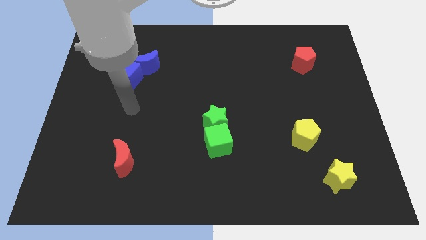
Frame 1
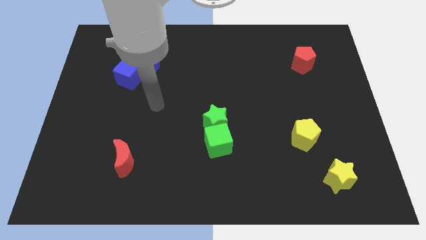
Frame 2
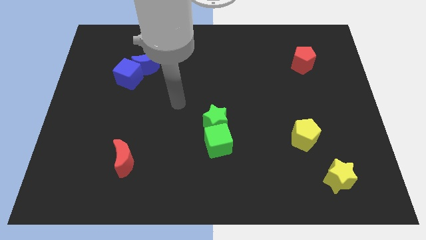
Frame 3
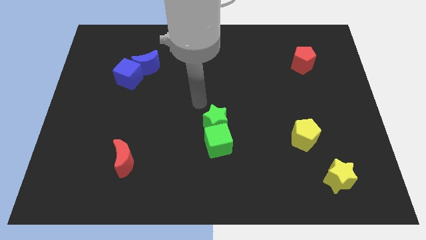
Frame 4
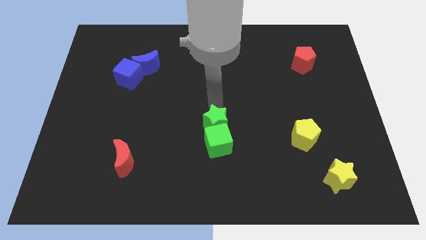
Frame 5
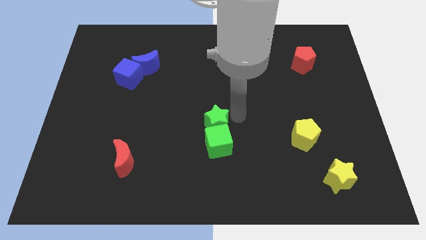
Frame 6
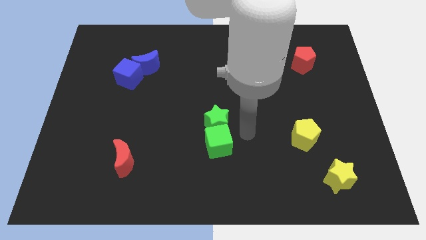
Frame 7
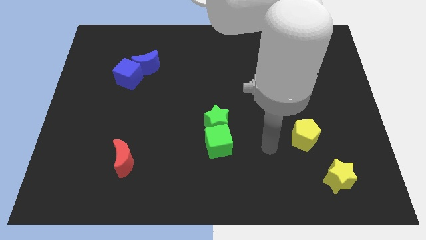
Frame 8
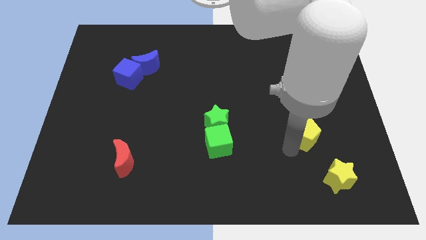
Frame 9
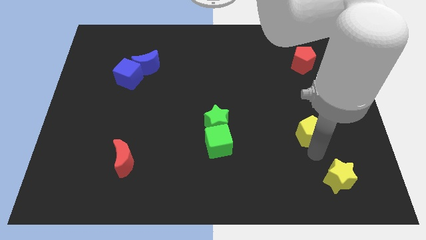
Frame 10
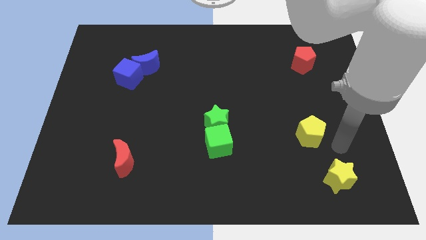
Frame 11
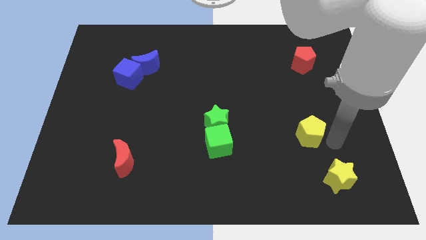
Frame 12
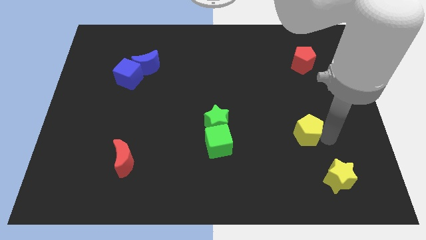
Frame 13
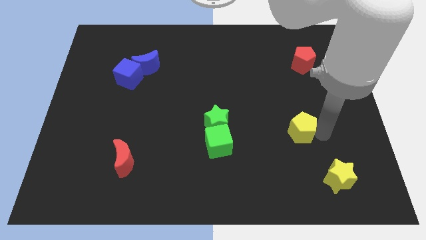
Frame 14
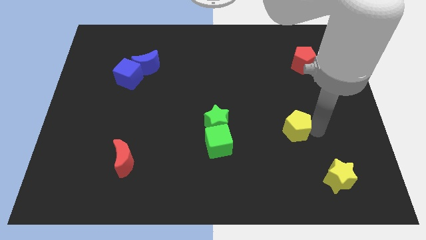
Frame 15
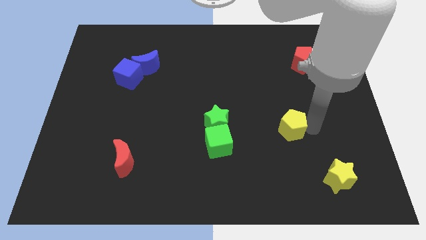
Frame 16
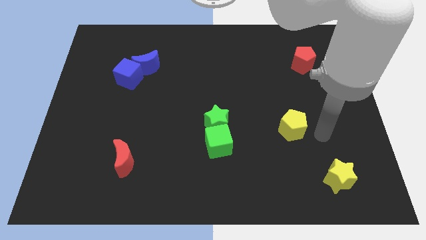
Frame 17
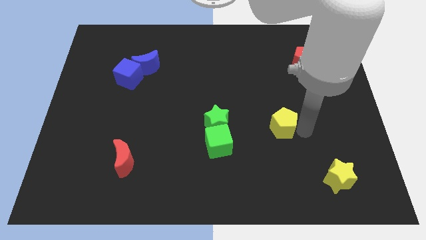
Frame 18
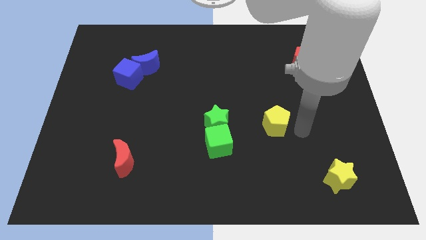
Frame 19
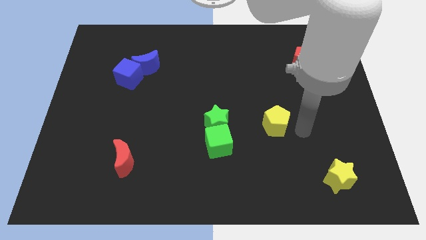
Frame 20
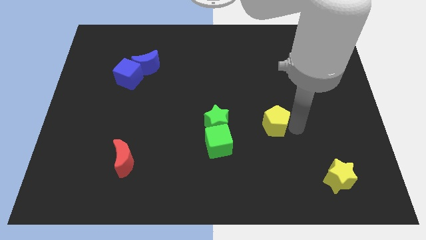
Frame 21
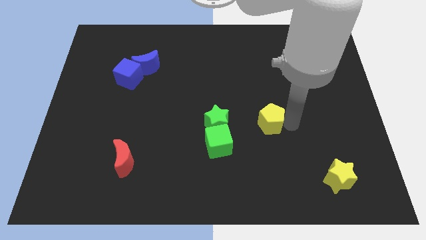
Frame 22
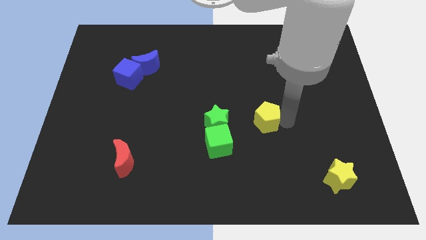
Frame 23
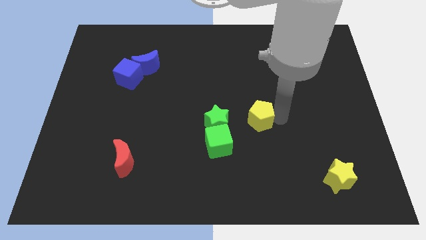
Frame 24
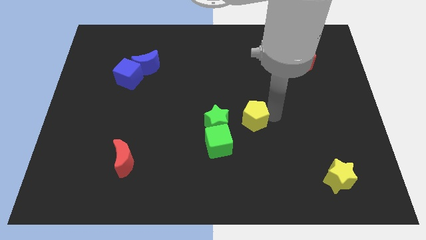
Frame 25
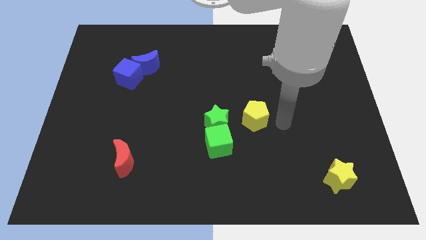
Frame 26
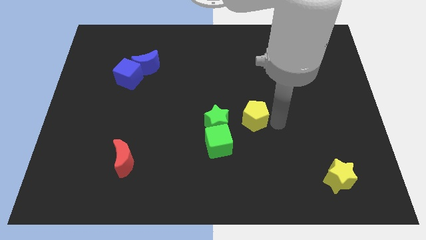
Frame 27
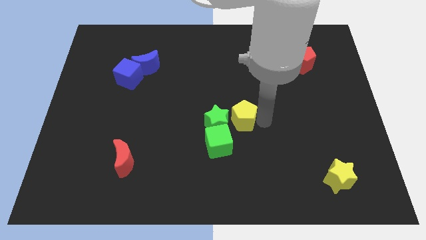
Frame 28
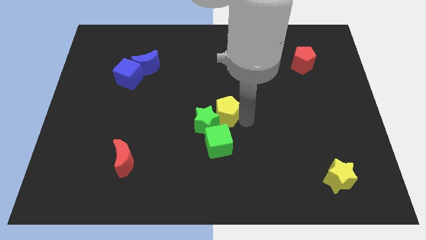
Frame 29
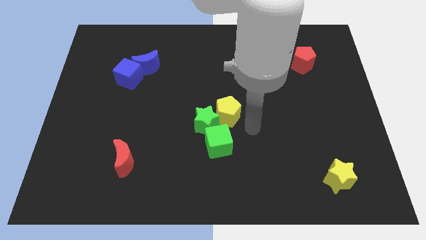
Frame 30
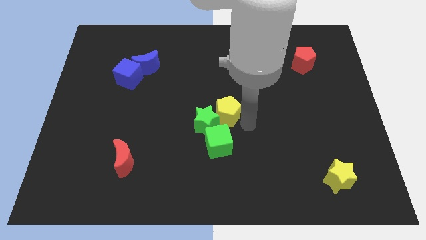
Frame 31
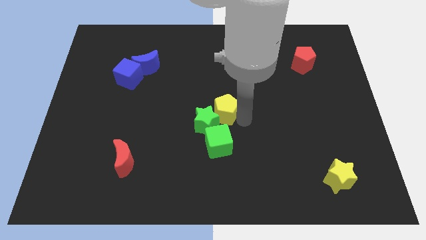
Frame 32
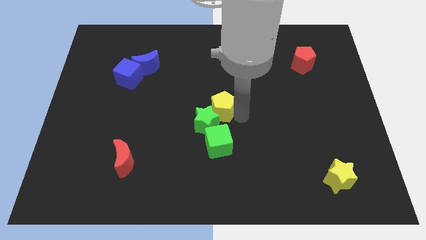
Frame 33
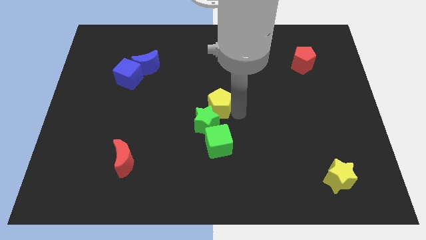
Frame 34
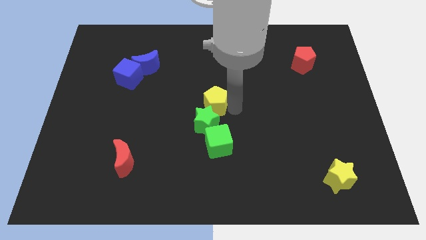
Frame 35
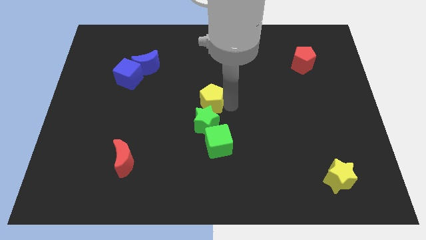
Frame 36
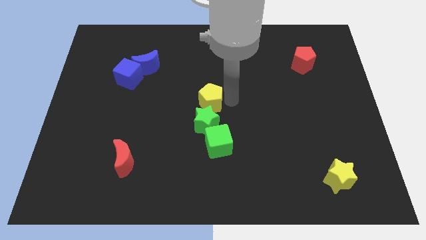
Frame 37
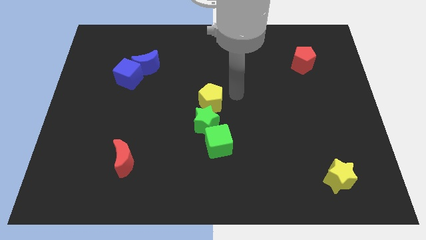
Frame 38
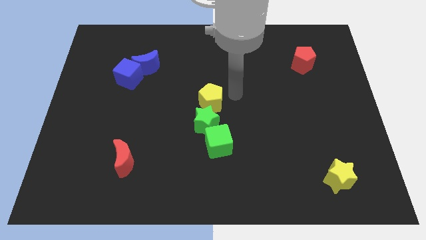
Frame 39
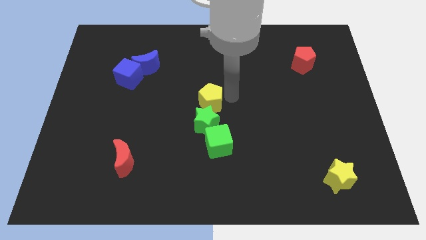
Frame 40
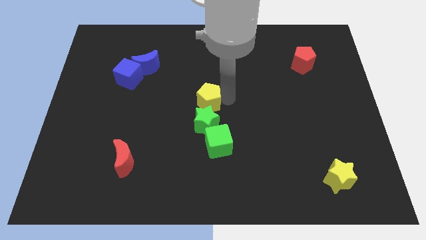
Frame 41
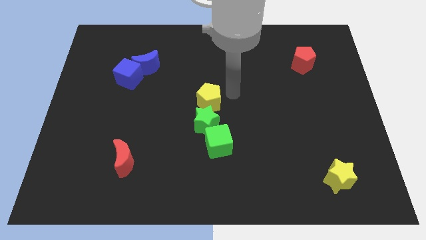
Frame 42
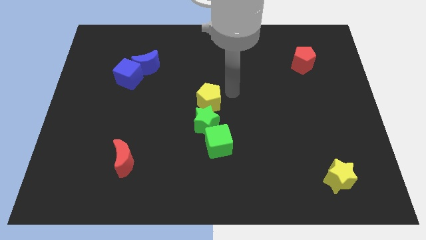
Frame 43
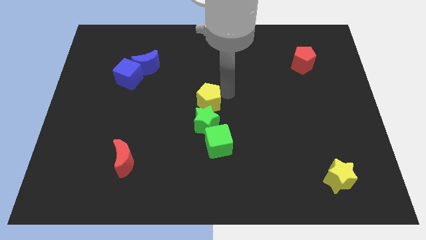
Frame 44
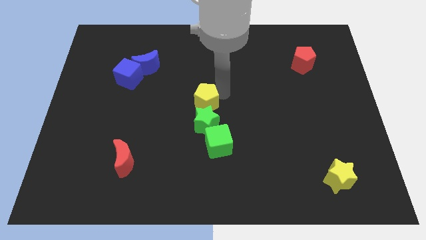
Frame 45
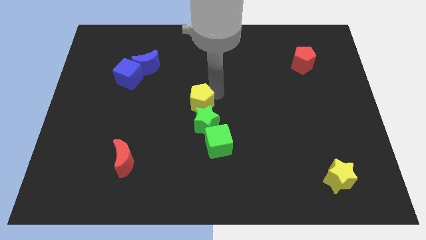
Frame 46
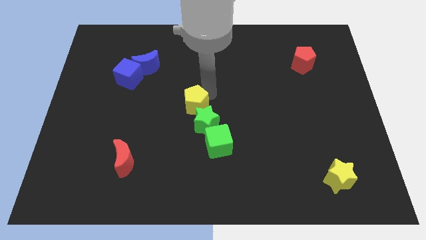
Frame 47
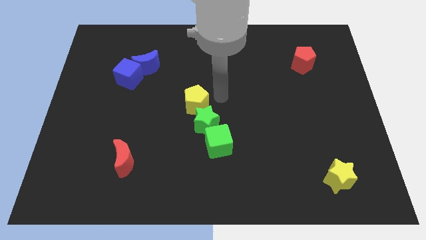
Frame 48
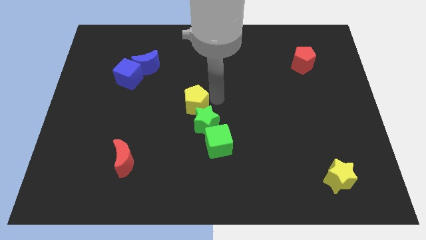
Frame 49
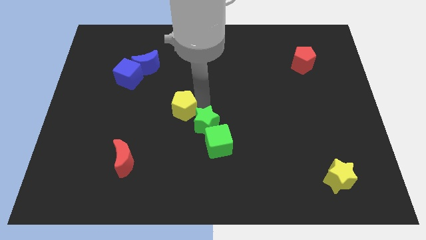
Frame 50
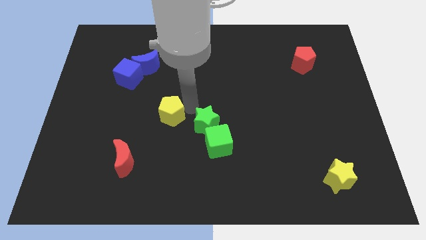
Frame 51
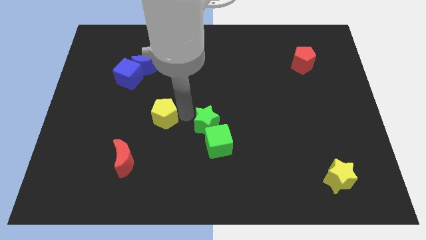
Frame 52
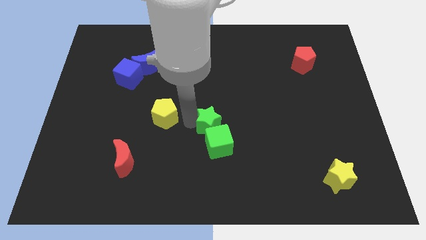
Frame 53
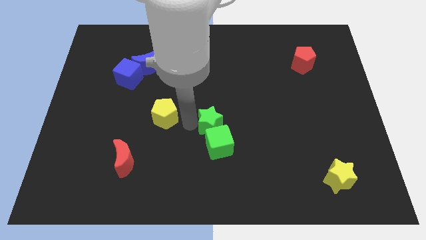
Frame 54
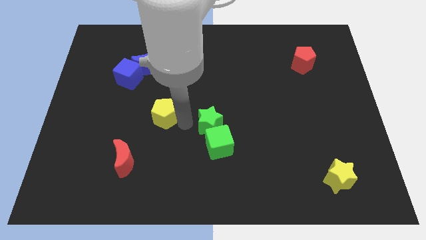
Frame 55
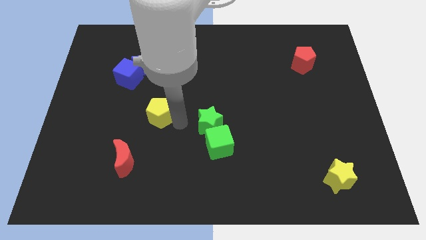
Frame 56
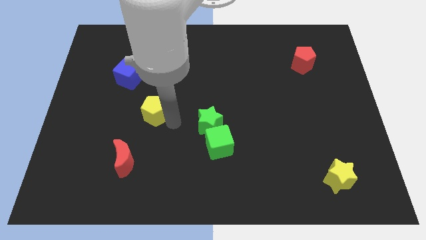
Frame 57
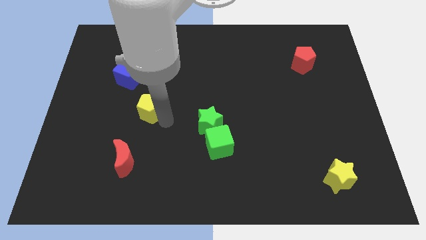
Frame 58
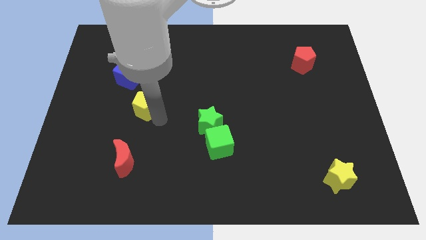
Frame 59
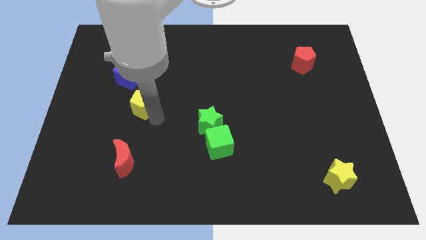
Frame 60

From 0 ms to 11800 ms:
move the yellow pentagon to the bottom side of the blue cube
